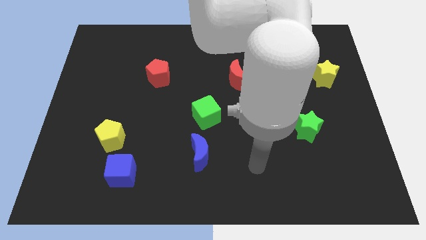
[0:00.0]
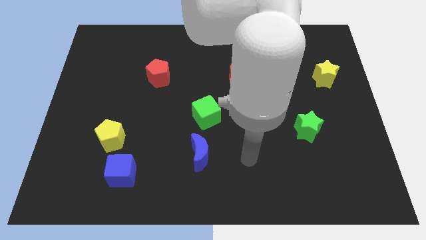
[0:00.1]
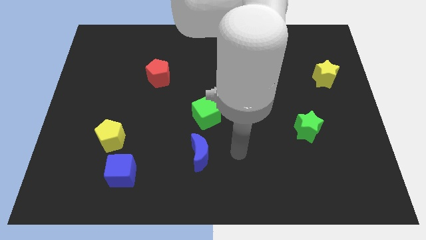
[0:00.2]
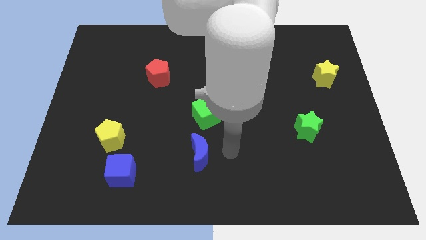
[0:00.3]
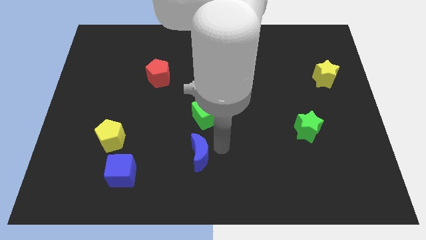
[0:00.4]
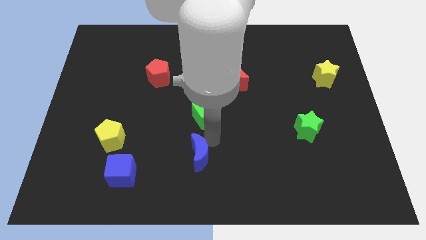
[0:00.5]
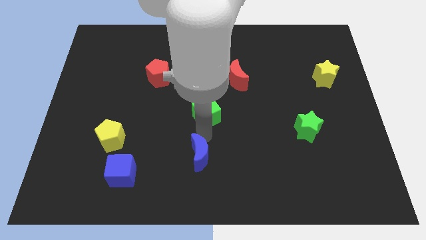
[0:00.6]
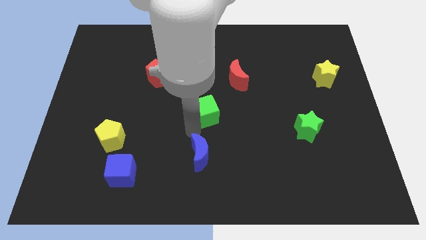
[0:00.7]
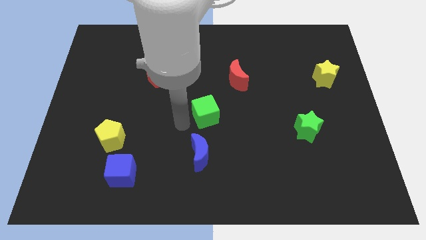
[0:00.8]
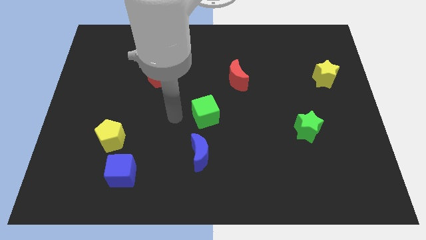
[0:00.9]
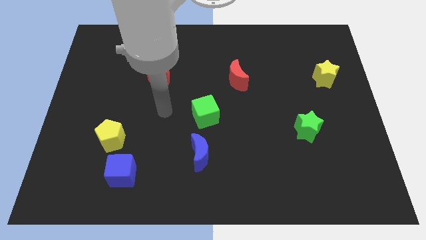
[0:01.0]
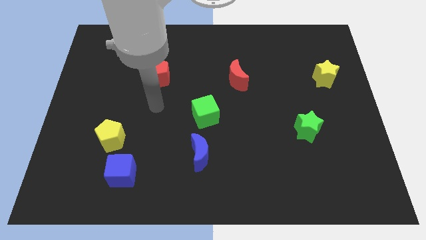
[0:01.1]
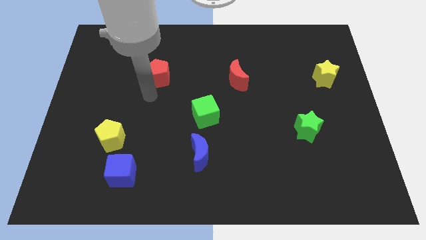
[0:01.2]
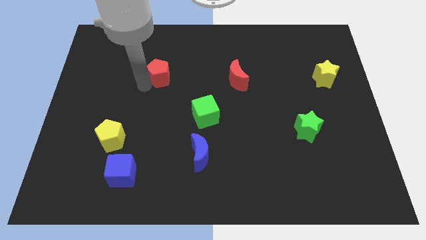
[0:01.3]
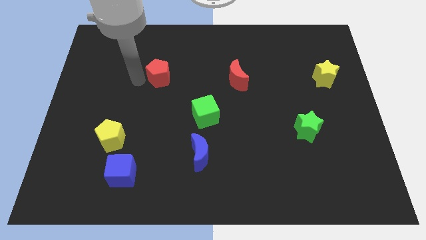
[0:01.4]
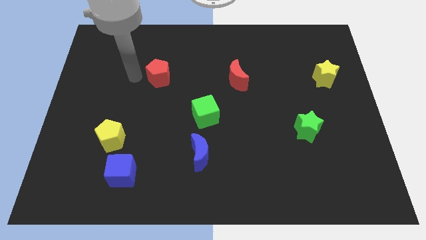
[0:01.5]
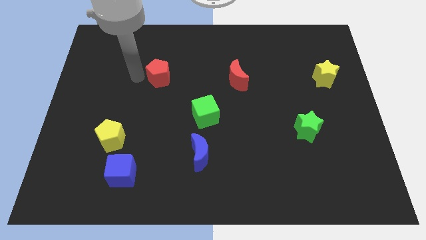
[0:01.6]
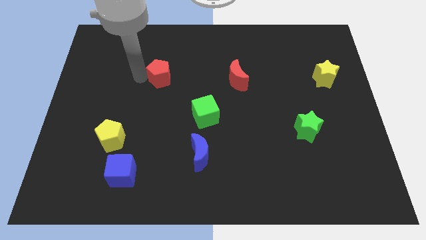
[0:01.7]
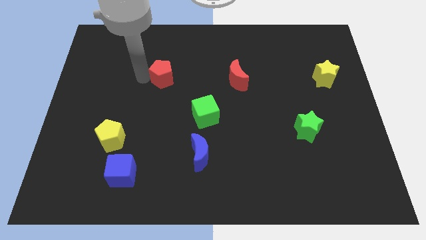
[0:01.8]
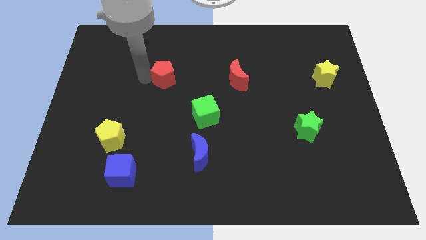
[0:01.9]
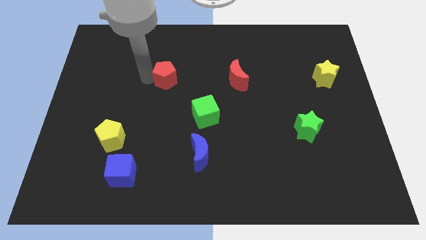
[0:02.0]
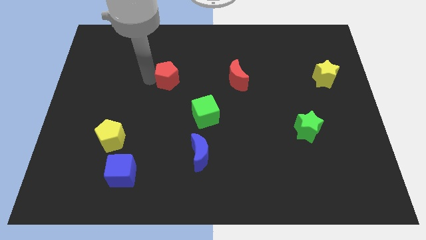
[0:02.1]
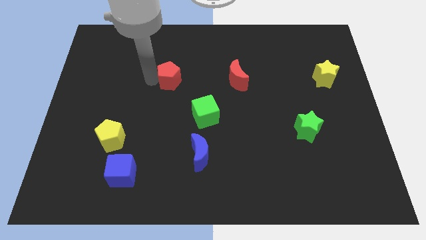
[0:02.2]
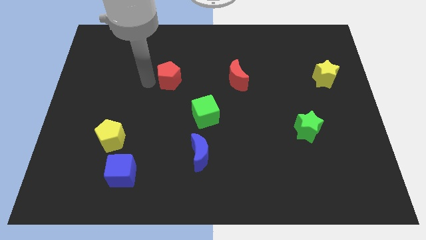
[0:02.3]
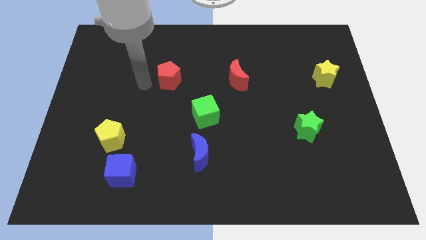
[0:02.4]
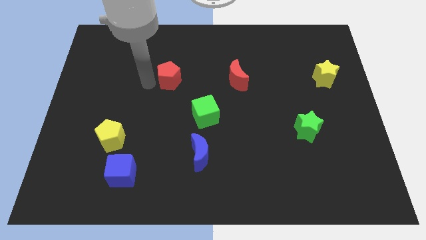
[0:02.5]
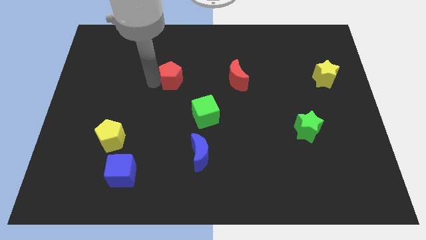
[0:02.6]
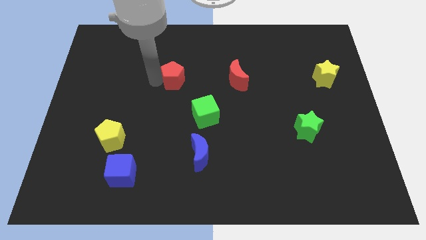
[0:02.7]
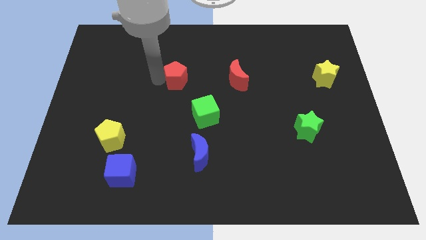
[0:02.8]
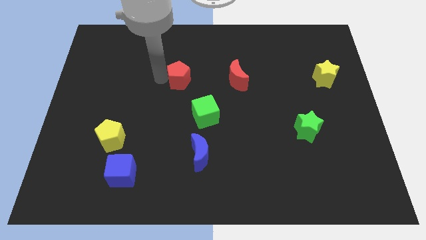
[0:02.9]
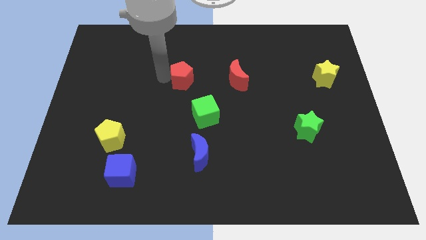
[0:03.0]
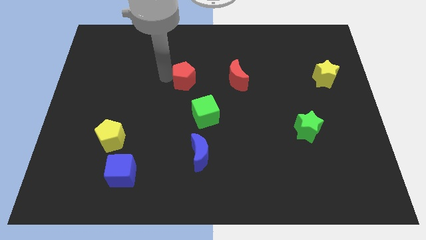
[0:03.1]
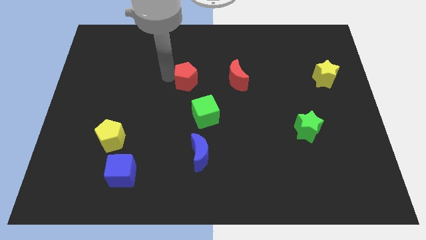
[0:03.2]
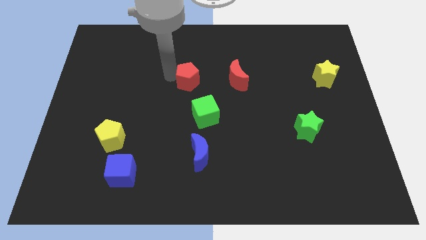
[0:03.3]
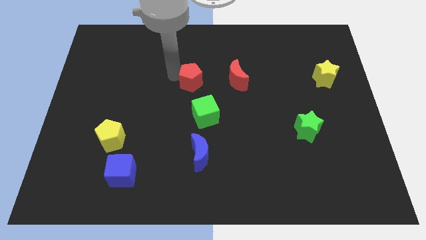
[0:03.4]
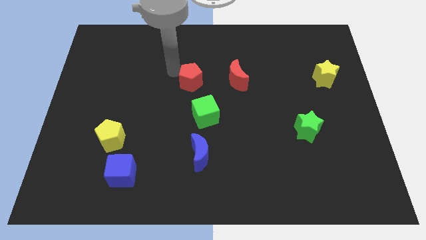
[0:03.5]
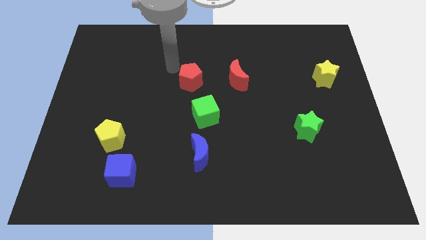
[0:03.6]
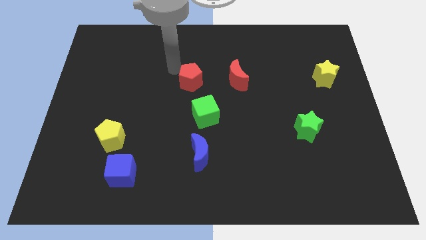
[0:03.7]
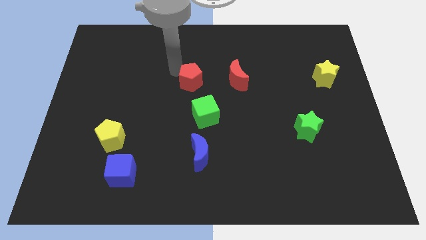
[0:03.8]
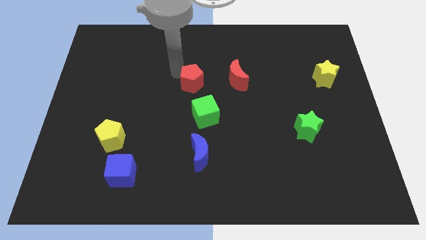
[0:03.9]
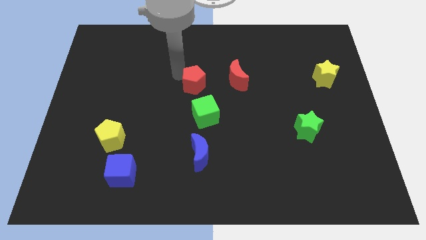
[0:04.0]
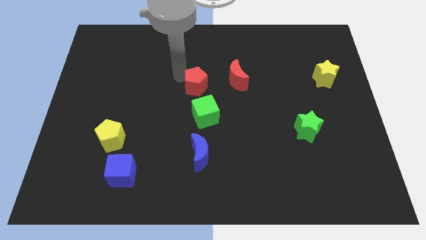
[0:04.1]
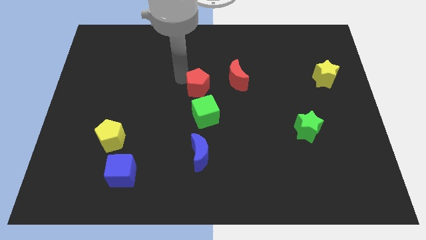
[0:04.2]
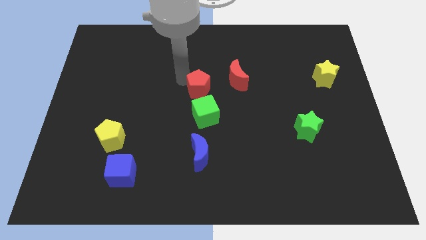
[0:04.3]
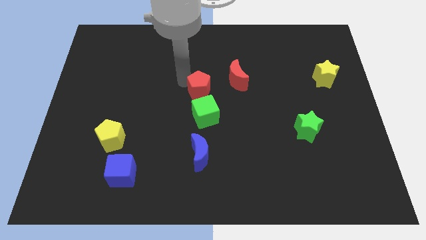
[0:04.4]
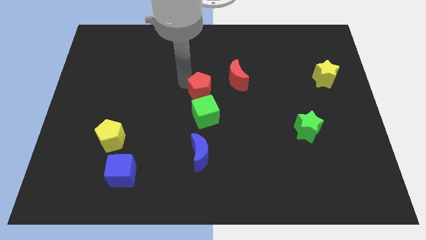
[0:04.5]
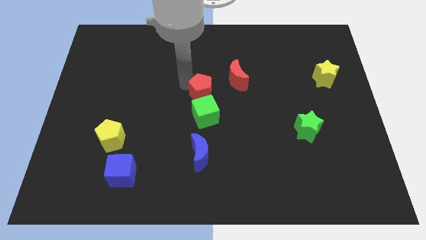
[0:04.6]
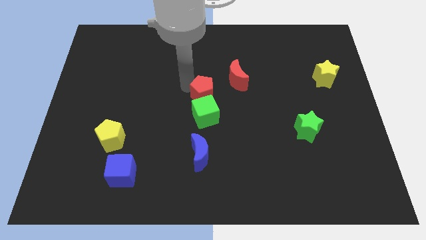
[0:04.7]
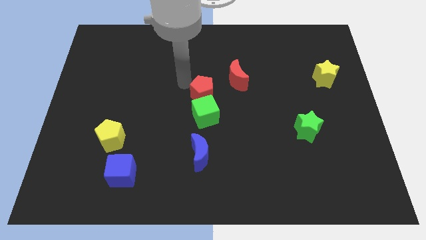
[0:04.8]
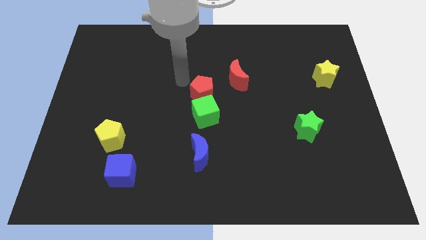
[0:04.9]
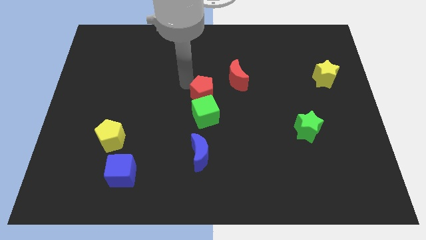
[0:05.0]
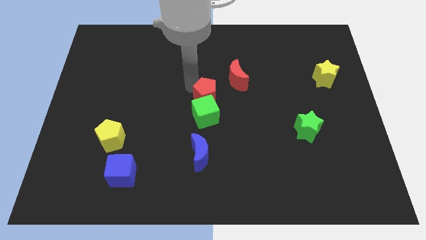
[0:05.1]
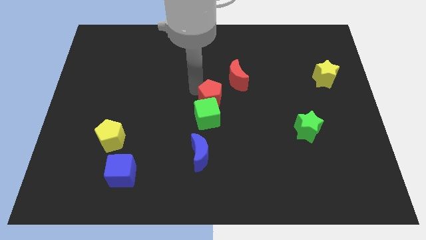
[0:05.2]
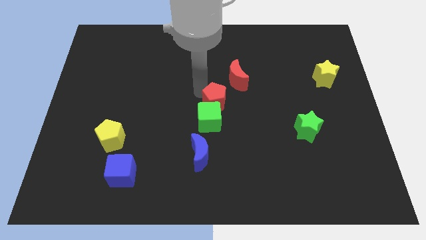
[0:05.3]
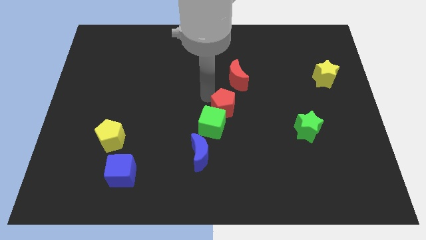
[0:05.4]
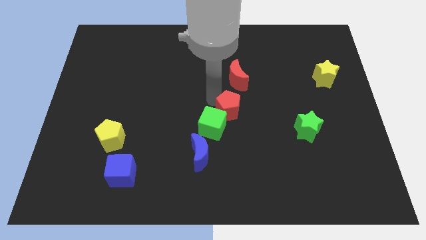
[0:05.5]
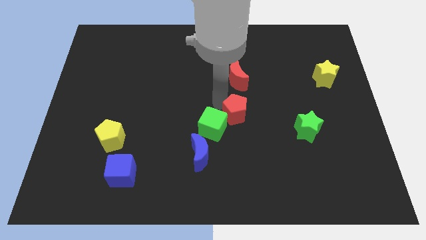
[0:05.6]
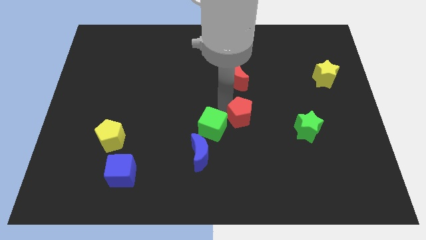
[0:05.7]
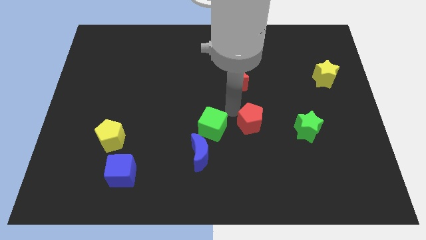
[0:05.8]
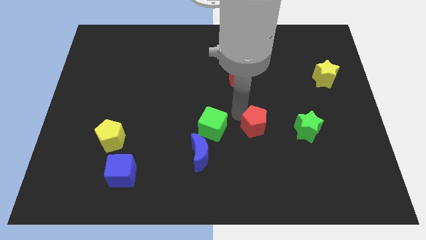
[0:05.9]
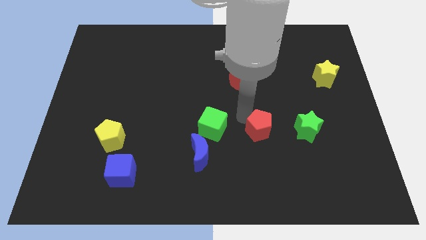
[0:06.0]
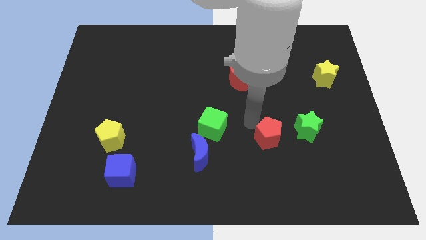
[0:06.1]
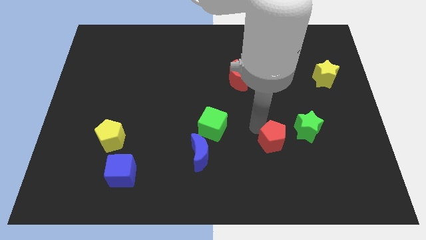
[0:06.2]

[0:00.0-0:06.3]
put the red pentagon to the bottom left of the green star

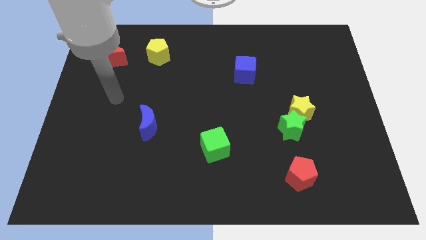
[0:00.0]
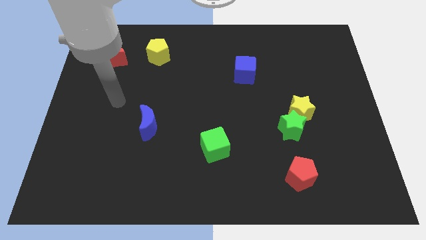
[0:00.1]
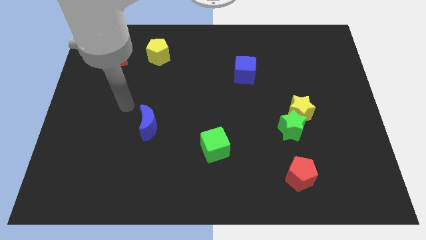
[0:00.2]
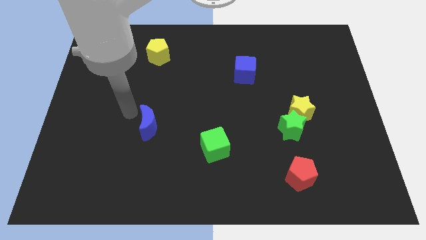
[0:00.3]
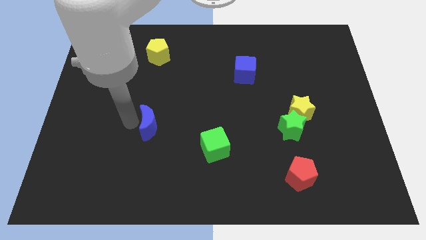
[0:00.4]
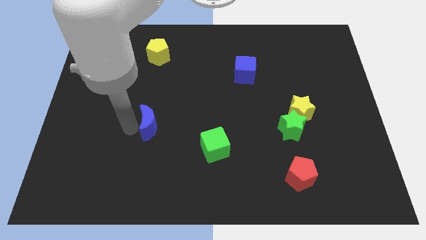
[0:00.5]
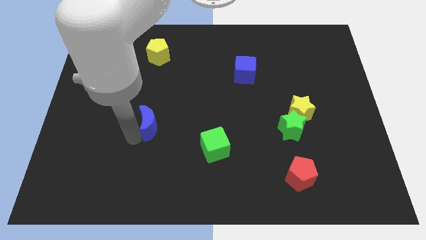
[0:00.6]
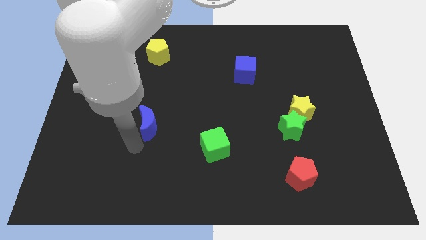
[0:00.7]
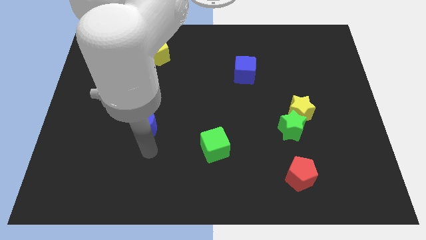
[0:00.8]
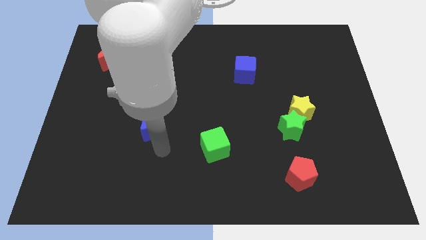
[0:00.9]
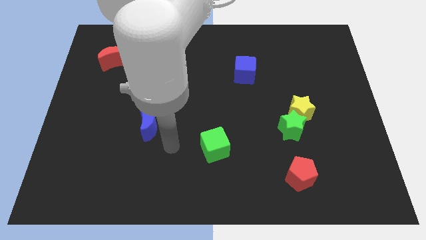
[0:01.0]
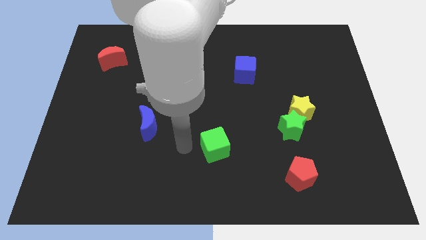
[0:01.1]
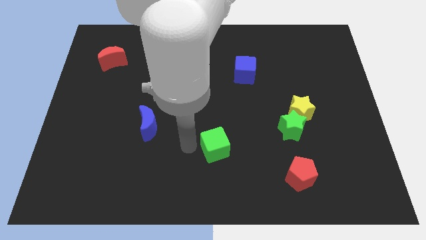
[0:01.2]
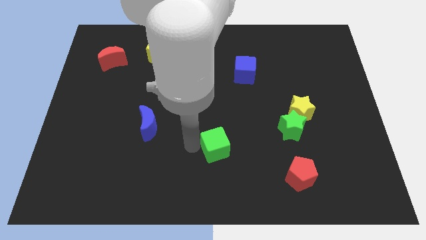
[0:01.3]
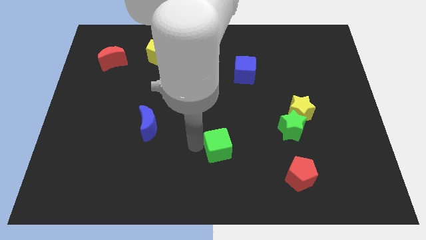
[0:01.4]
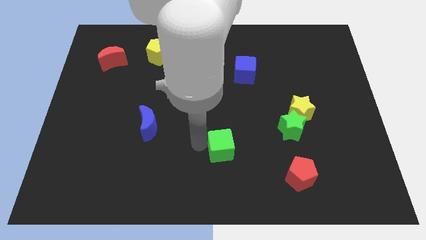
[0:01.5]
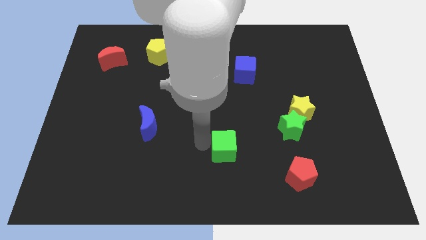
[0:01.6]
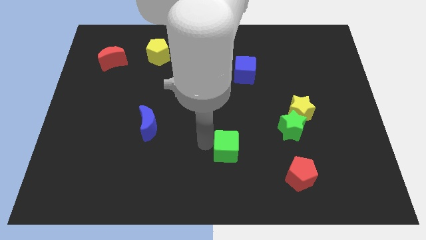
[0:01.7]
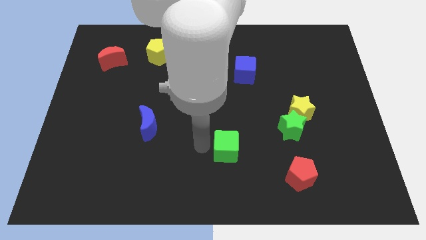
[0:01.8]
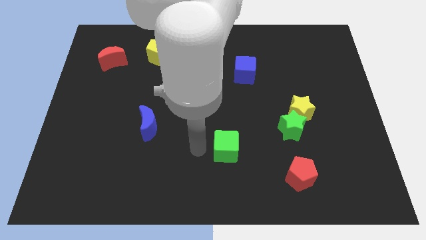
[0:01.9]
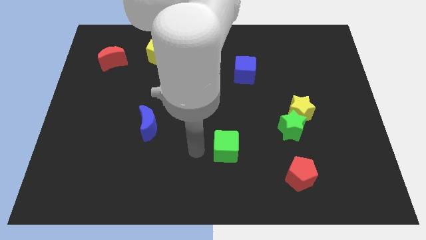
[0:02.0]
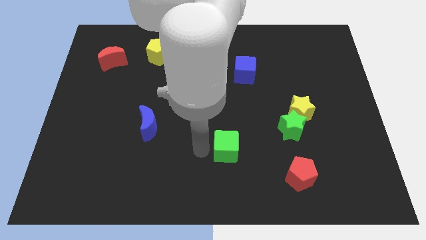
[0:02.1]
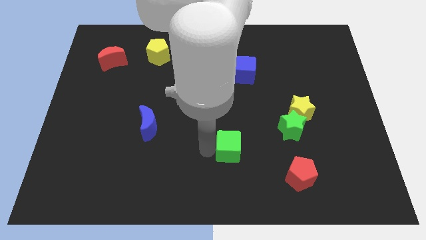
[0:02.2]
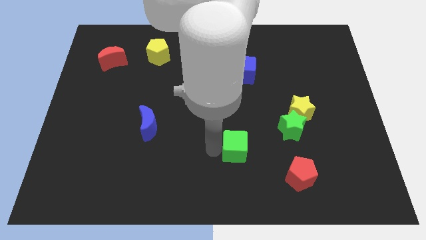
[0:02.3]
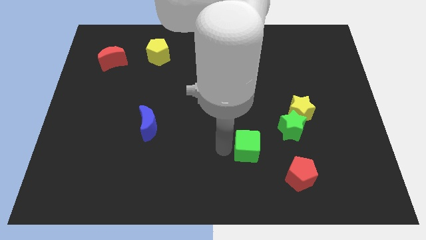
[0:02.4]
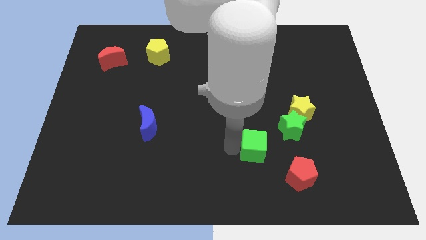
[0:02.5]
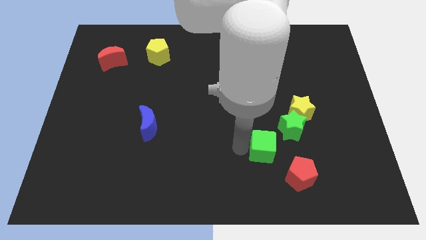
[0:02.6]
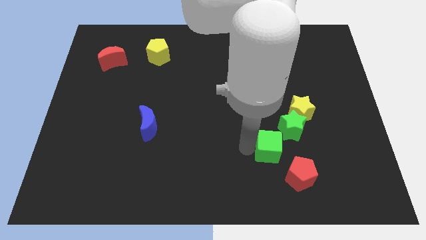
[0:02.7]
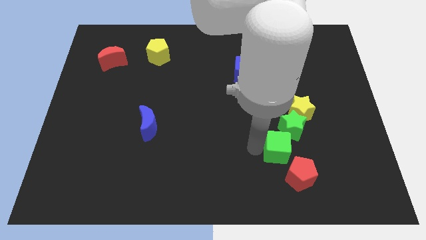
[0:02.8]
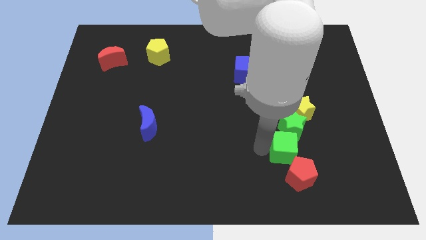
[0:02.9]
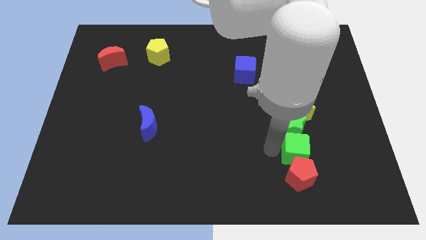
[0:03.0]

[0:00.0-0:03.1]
put the green cube to the bottom right side of the green star
